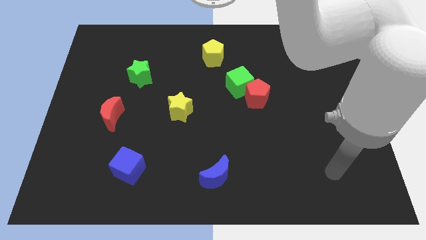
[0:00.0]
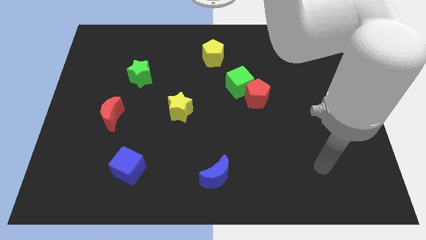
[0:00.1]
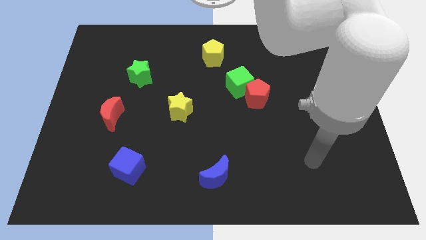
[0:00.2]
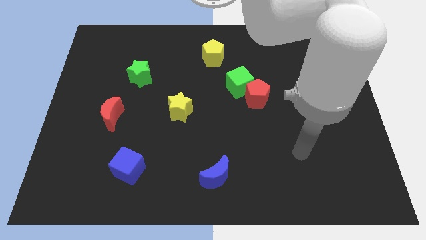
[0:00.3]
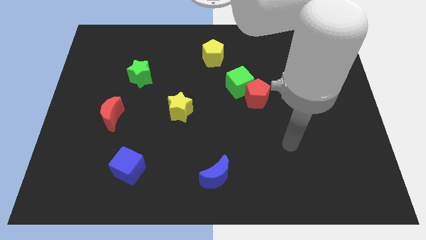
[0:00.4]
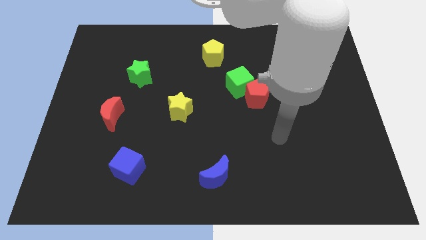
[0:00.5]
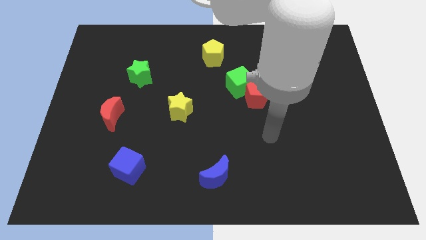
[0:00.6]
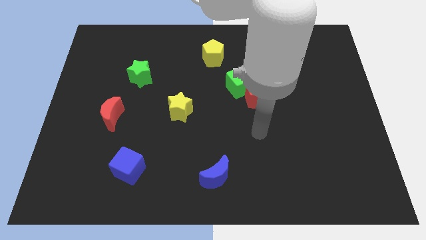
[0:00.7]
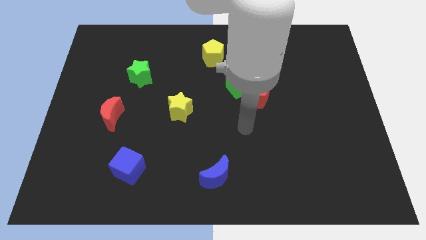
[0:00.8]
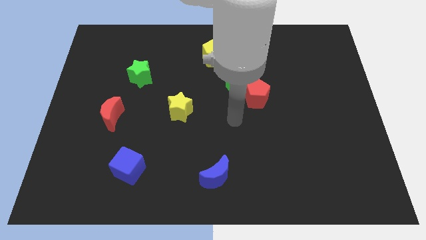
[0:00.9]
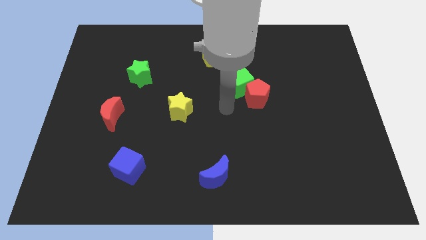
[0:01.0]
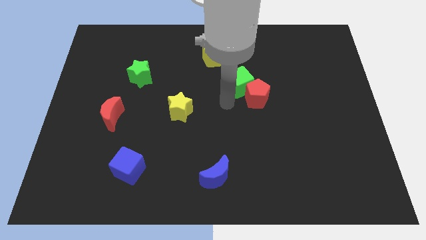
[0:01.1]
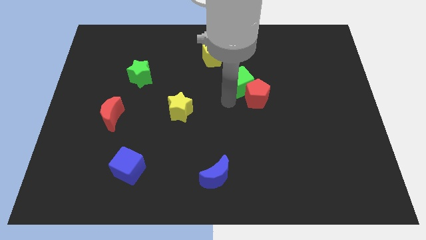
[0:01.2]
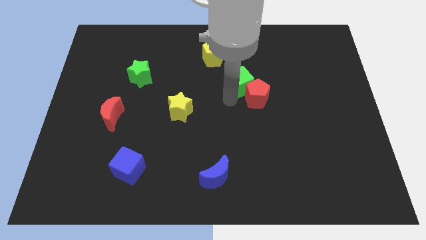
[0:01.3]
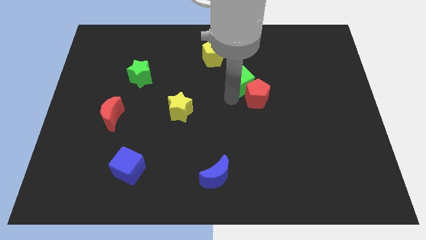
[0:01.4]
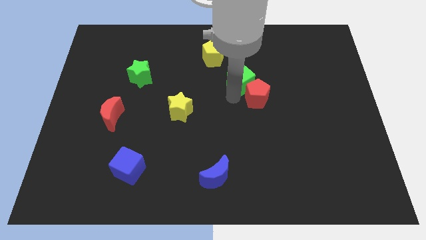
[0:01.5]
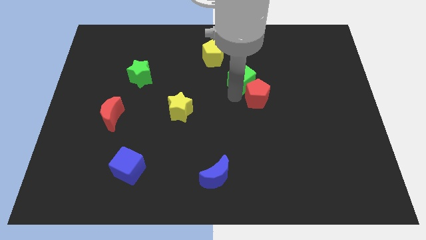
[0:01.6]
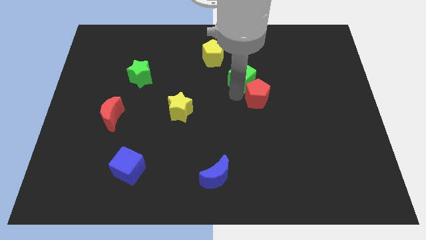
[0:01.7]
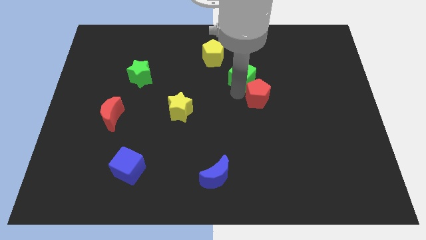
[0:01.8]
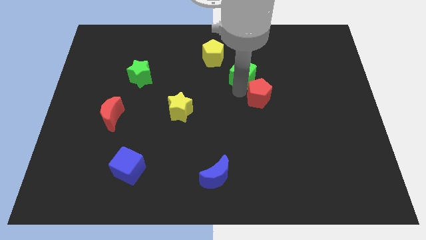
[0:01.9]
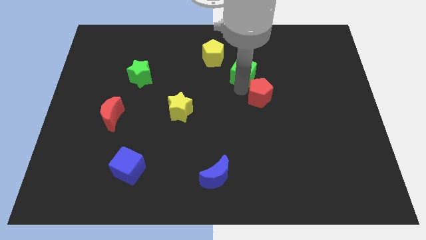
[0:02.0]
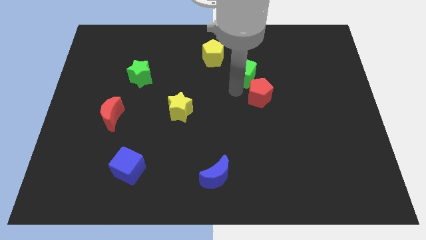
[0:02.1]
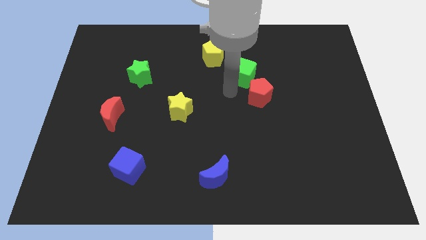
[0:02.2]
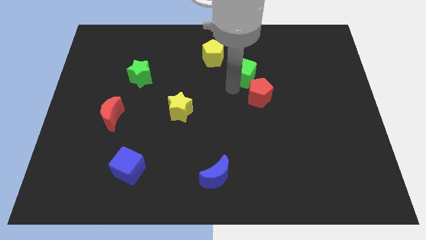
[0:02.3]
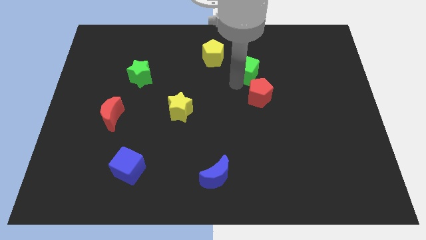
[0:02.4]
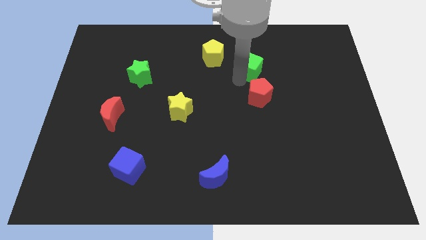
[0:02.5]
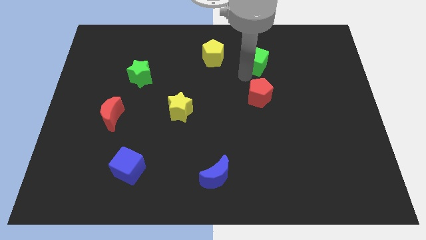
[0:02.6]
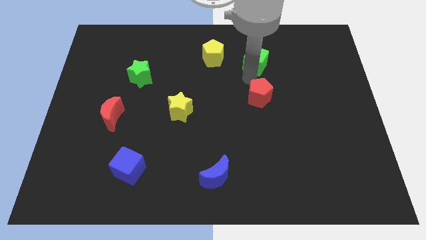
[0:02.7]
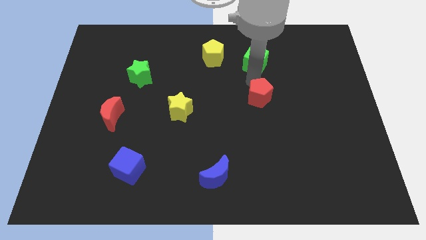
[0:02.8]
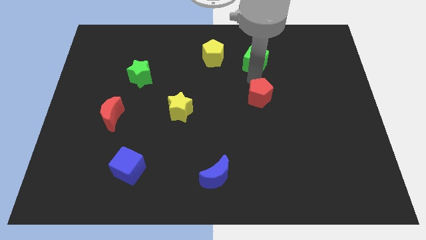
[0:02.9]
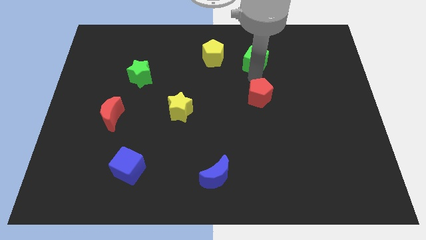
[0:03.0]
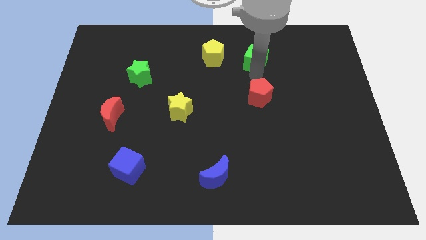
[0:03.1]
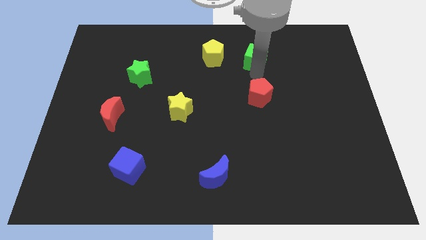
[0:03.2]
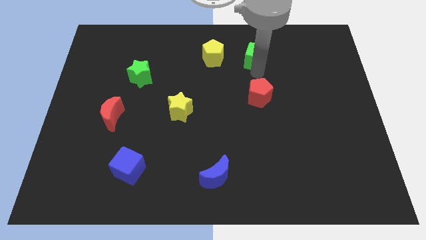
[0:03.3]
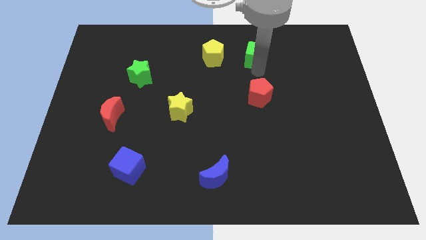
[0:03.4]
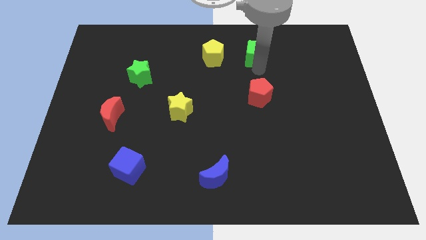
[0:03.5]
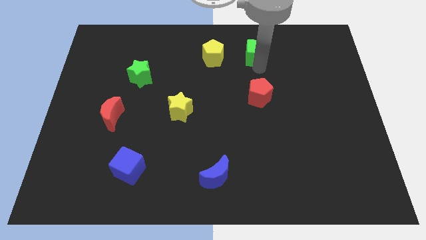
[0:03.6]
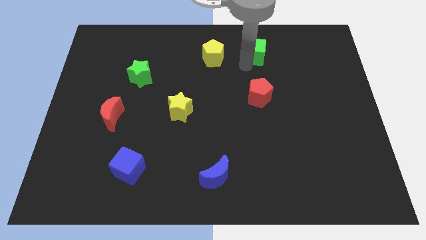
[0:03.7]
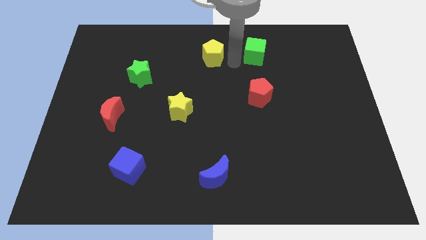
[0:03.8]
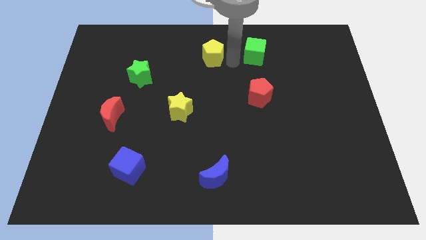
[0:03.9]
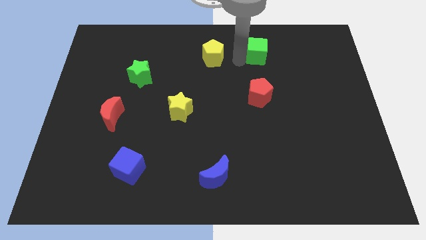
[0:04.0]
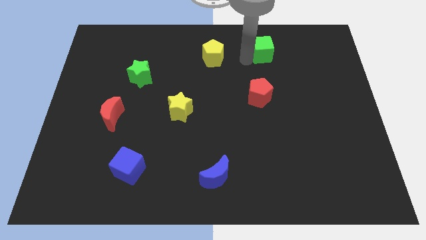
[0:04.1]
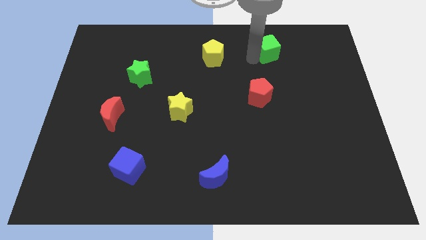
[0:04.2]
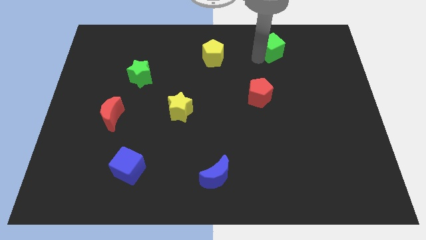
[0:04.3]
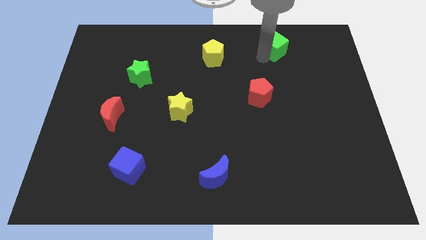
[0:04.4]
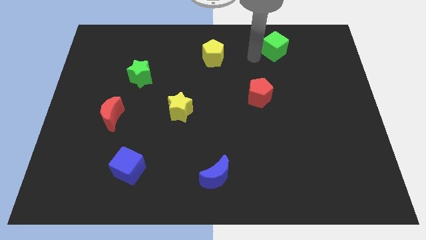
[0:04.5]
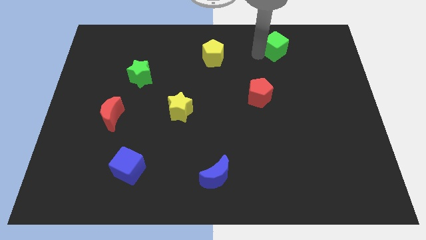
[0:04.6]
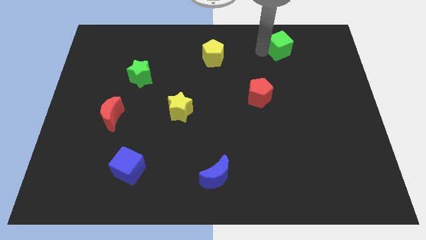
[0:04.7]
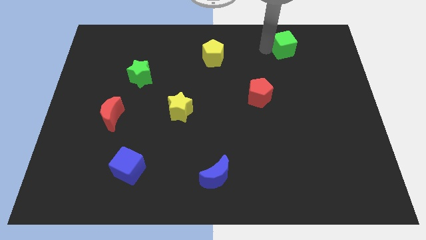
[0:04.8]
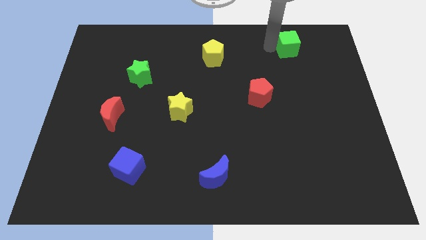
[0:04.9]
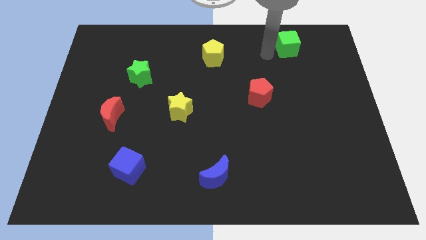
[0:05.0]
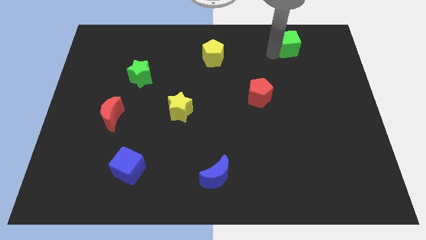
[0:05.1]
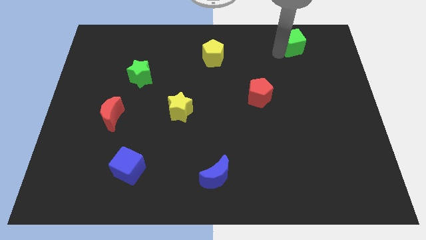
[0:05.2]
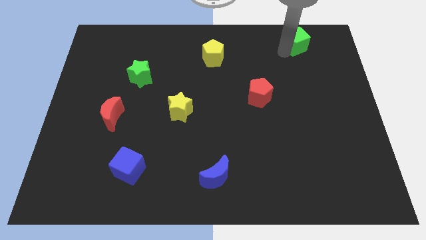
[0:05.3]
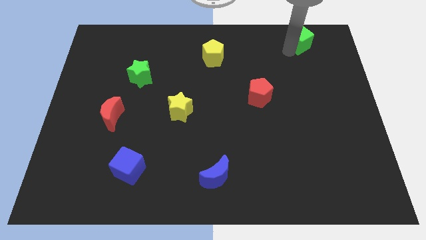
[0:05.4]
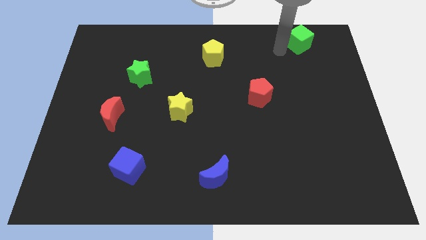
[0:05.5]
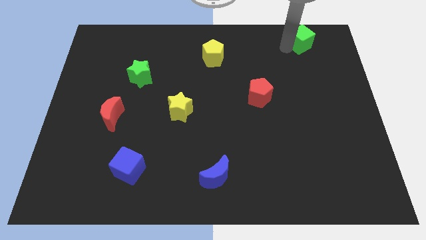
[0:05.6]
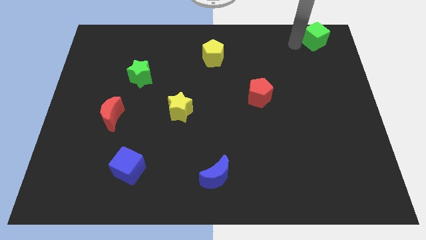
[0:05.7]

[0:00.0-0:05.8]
put the green cube to the upper right corner

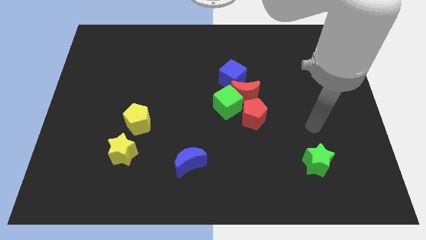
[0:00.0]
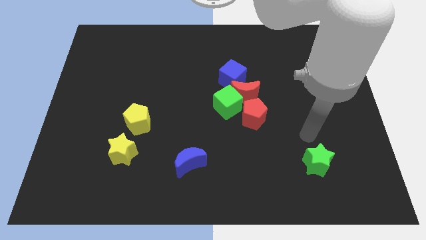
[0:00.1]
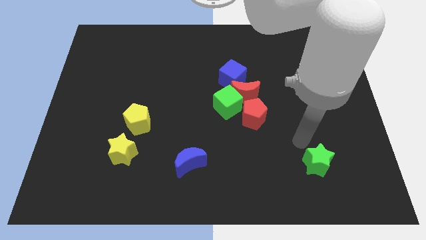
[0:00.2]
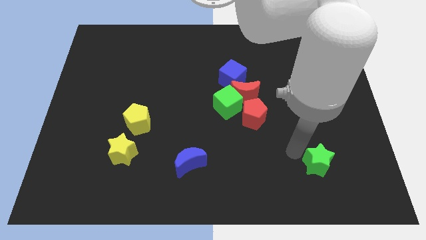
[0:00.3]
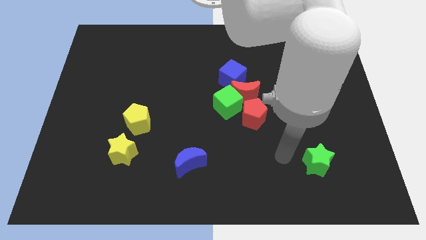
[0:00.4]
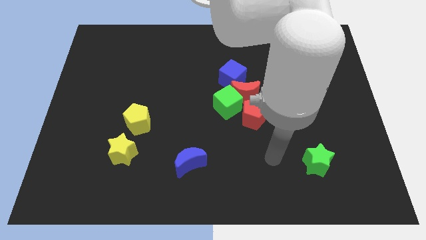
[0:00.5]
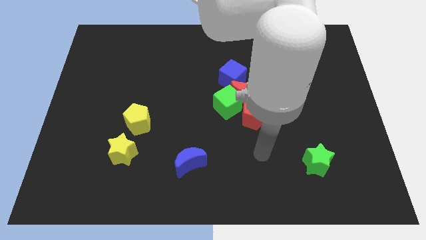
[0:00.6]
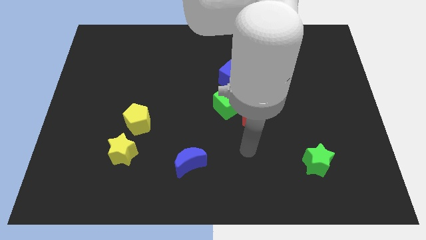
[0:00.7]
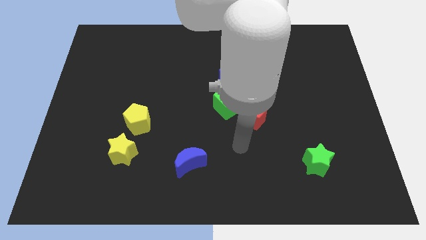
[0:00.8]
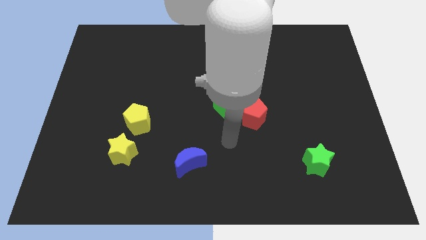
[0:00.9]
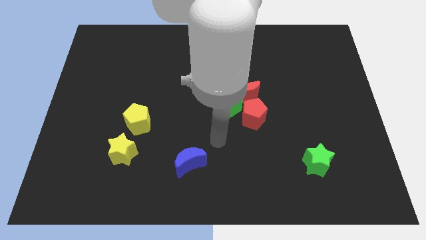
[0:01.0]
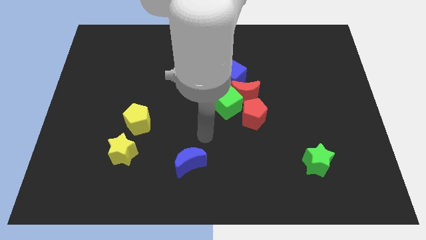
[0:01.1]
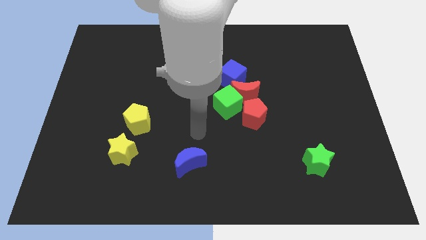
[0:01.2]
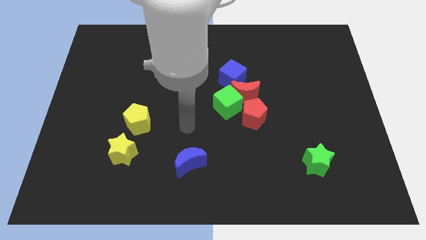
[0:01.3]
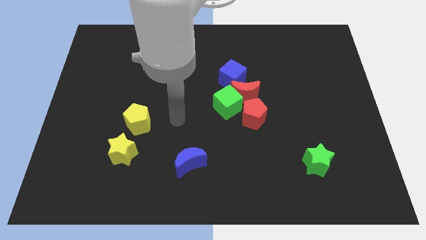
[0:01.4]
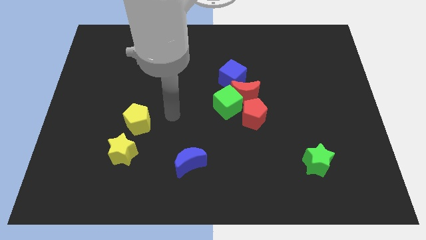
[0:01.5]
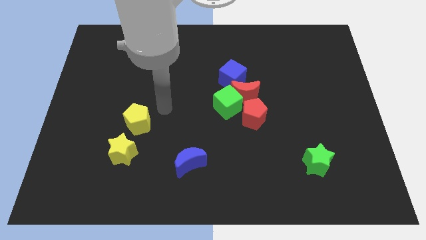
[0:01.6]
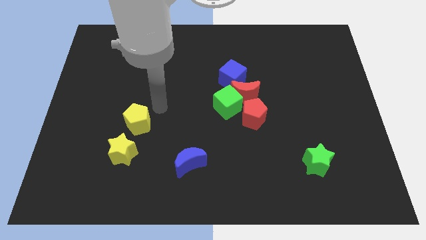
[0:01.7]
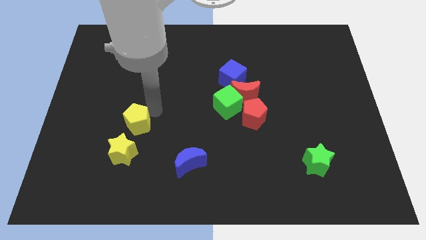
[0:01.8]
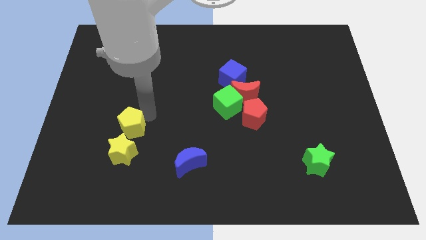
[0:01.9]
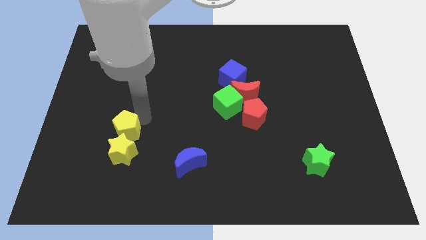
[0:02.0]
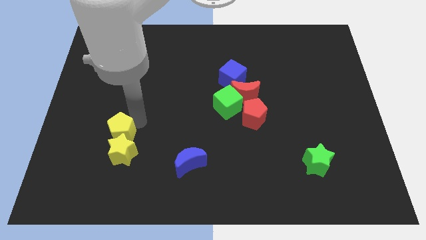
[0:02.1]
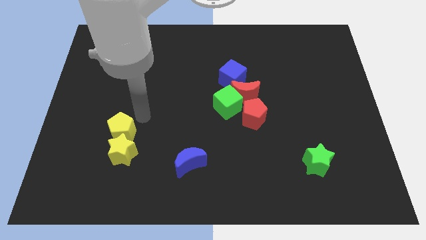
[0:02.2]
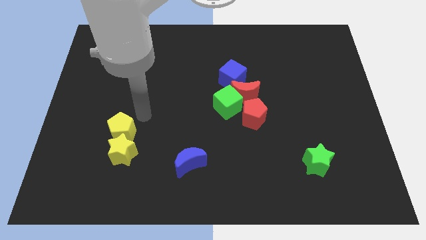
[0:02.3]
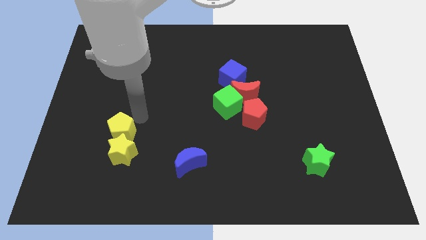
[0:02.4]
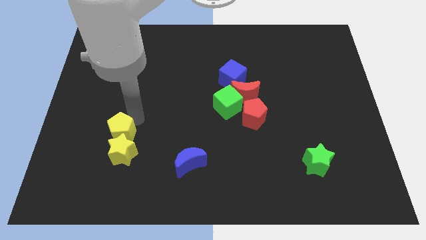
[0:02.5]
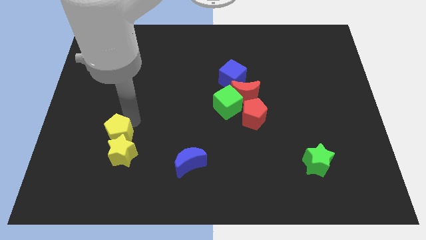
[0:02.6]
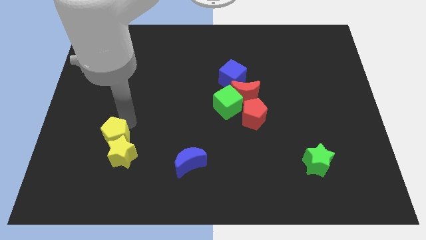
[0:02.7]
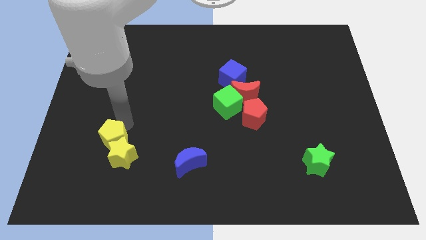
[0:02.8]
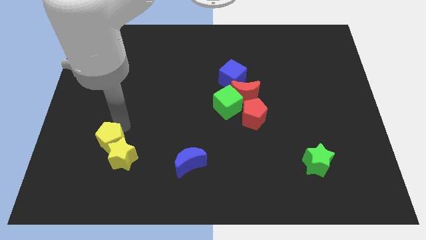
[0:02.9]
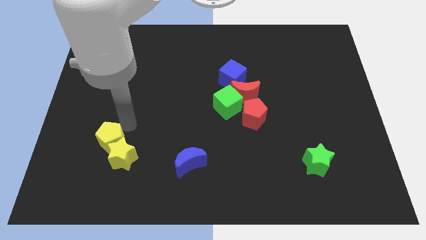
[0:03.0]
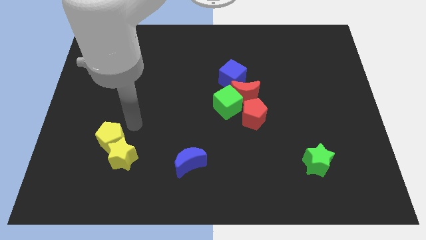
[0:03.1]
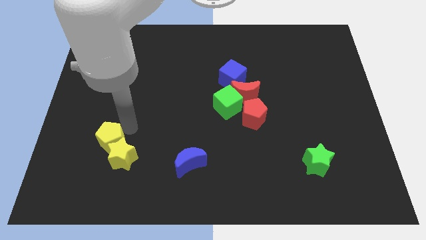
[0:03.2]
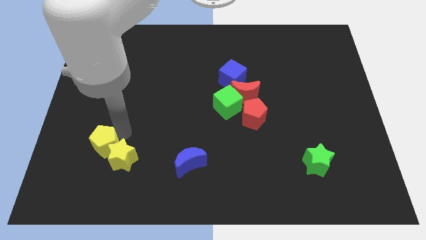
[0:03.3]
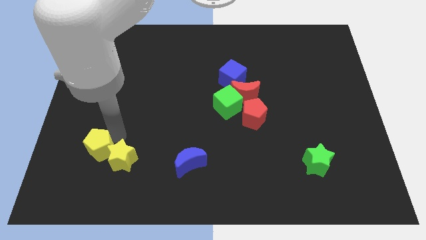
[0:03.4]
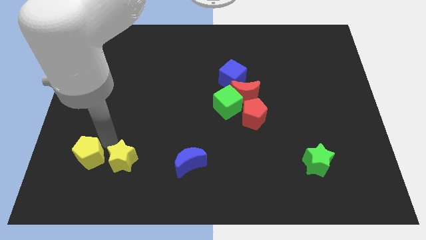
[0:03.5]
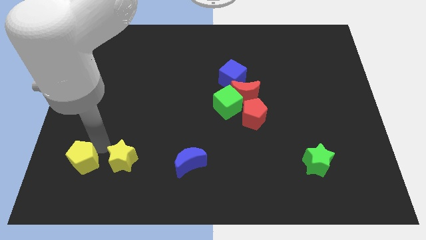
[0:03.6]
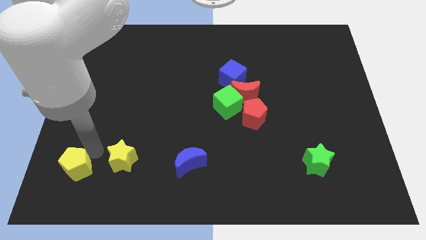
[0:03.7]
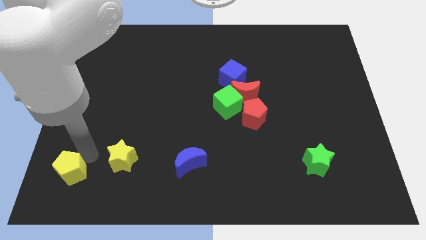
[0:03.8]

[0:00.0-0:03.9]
push the yellow pentagon to the bottom left corner
